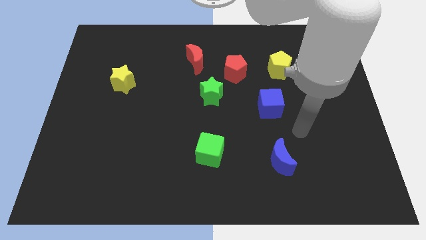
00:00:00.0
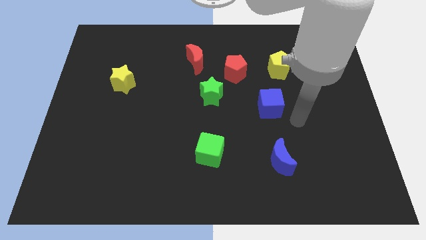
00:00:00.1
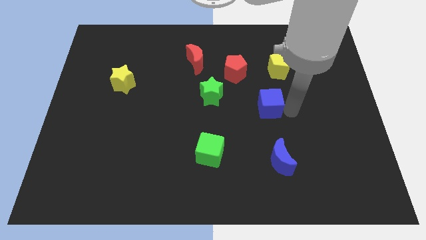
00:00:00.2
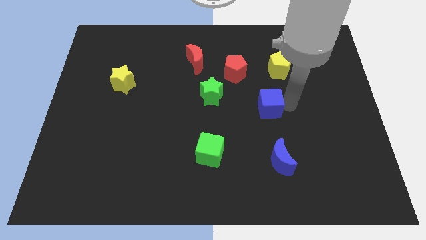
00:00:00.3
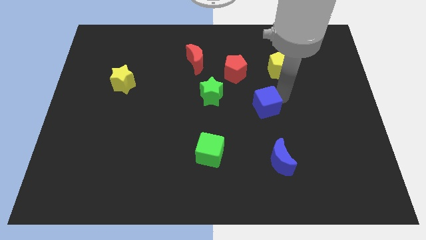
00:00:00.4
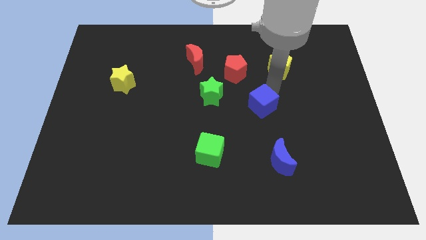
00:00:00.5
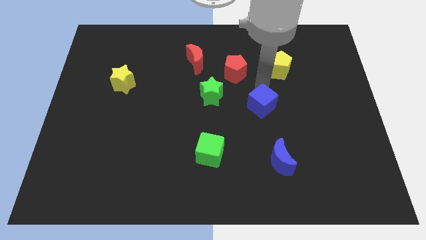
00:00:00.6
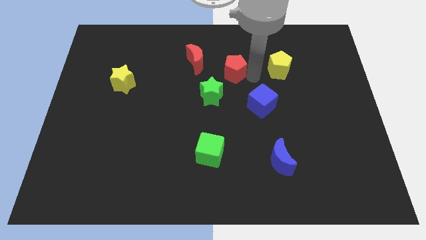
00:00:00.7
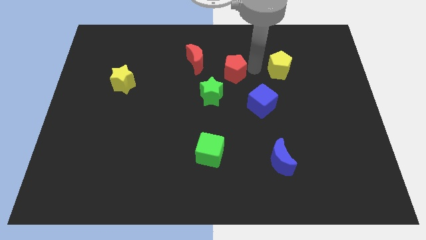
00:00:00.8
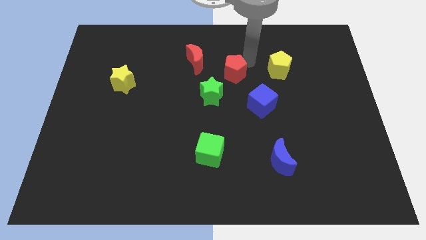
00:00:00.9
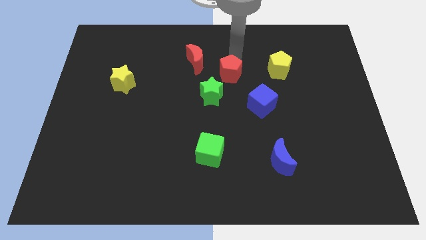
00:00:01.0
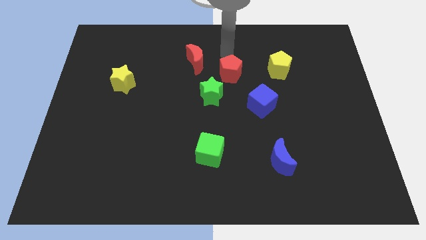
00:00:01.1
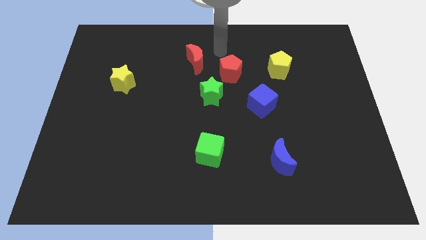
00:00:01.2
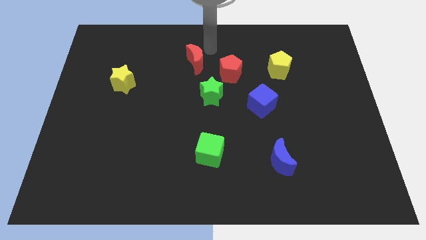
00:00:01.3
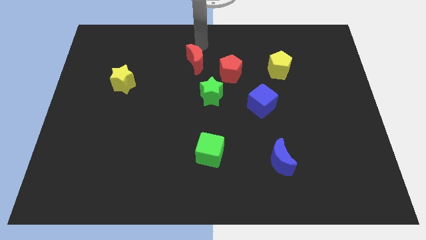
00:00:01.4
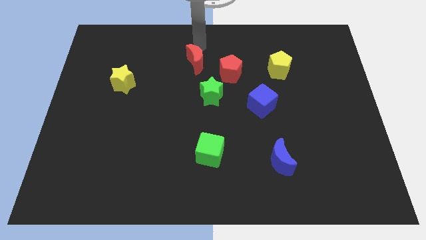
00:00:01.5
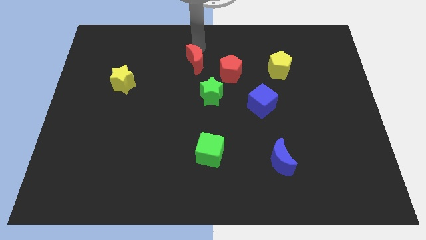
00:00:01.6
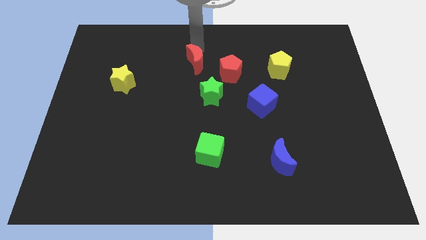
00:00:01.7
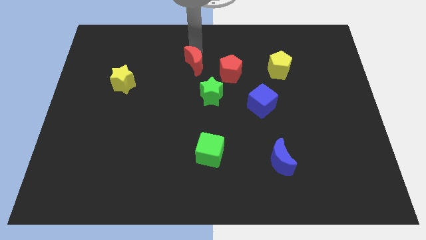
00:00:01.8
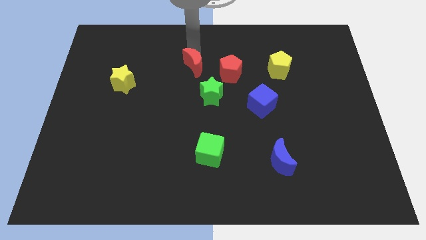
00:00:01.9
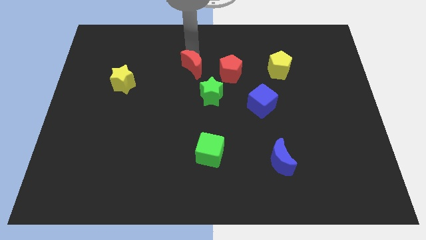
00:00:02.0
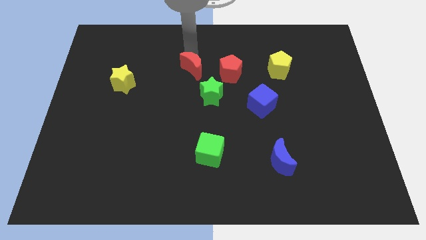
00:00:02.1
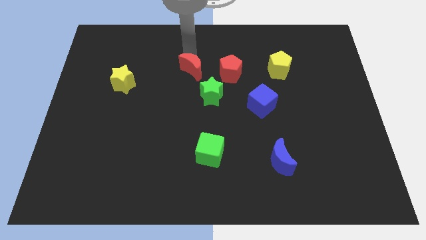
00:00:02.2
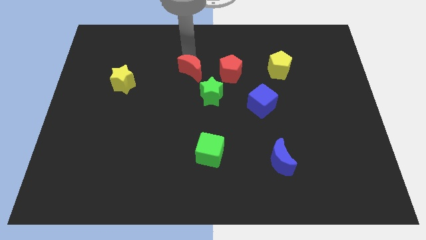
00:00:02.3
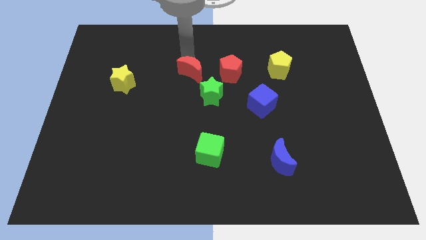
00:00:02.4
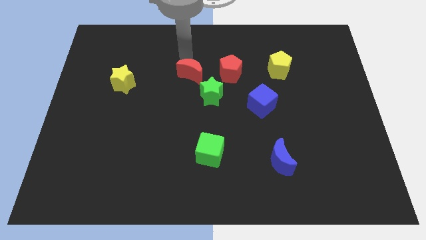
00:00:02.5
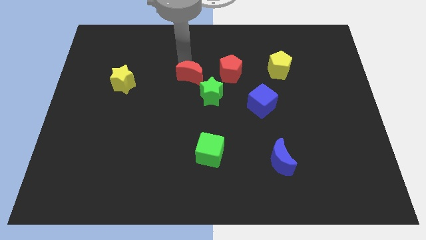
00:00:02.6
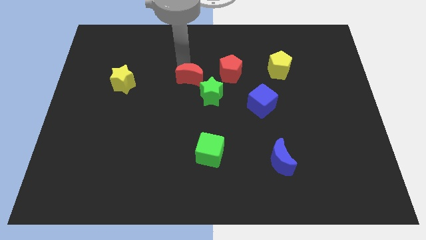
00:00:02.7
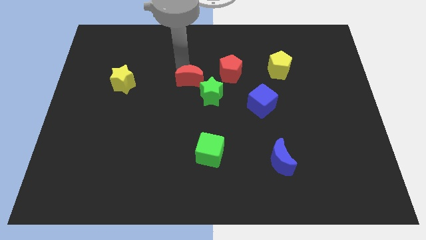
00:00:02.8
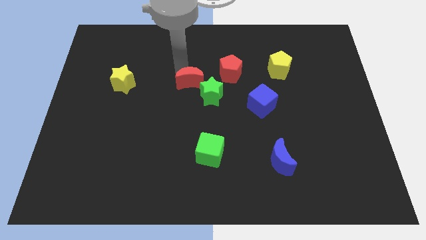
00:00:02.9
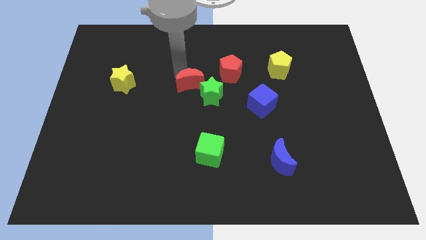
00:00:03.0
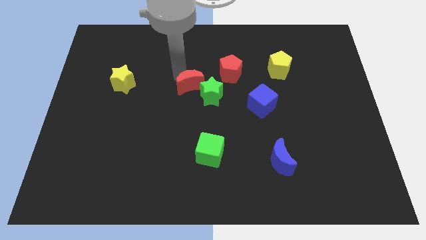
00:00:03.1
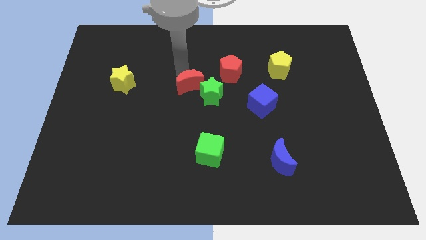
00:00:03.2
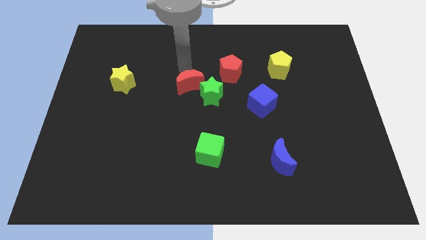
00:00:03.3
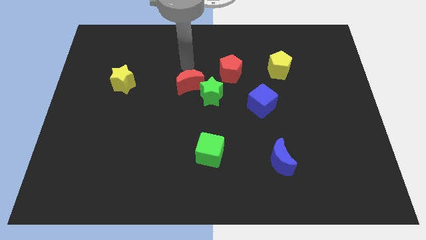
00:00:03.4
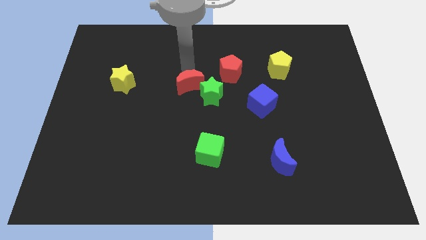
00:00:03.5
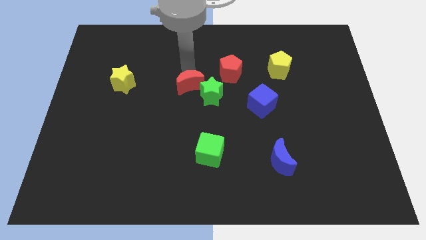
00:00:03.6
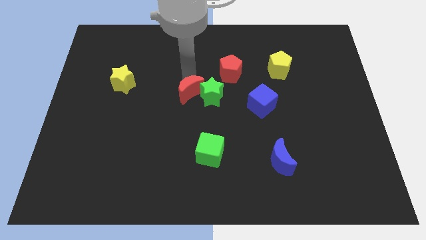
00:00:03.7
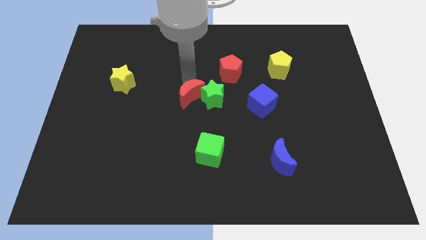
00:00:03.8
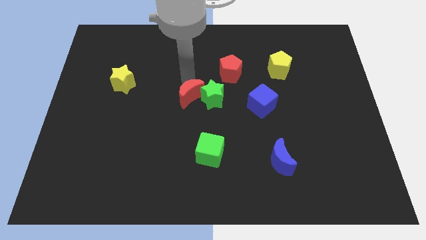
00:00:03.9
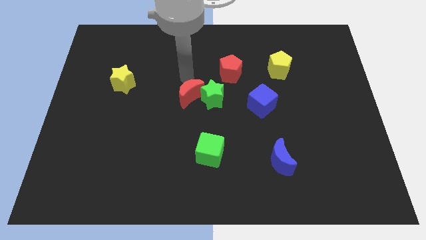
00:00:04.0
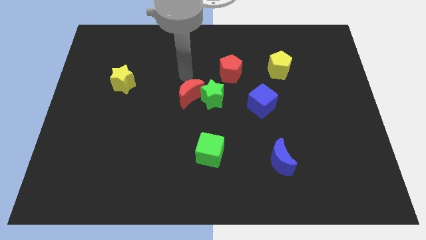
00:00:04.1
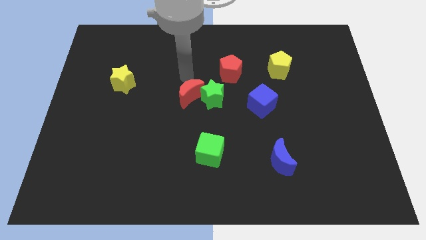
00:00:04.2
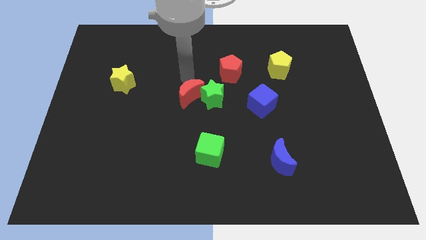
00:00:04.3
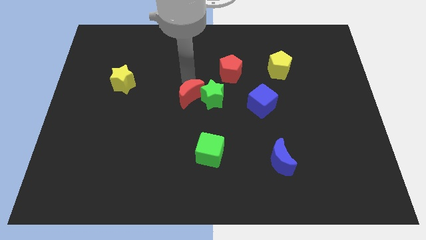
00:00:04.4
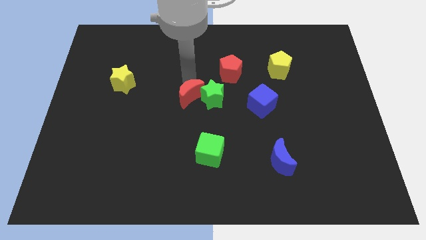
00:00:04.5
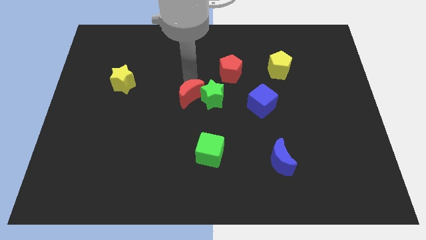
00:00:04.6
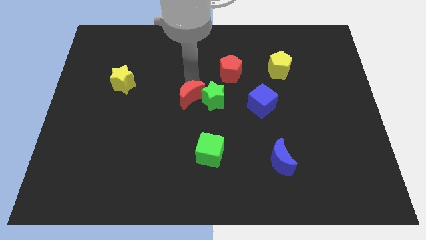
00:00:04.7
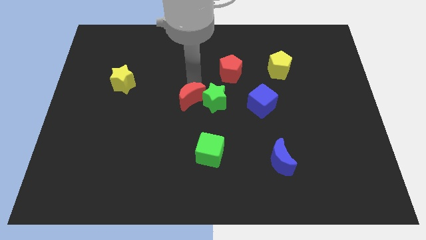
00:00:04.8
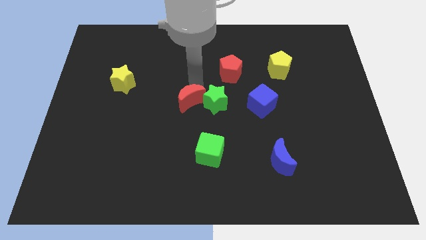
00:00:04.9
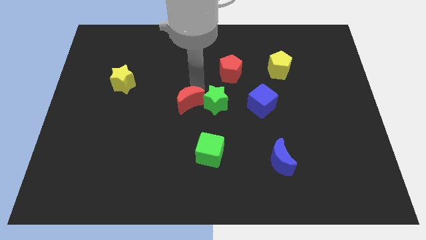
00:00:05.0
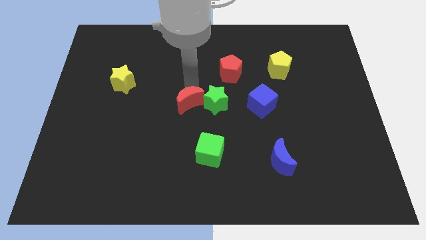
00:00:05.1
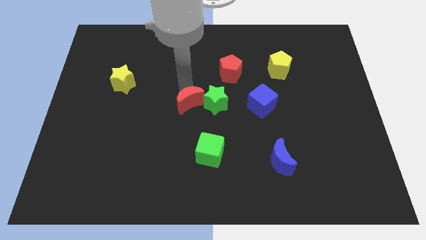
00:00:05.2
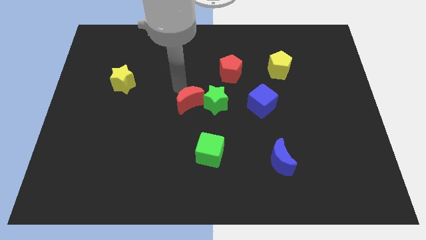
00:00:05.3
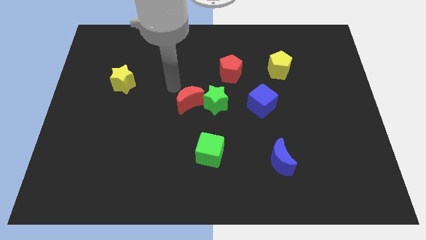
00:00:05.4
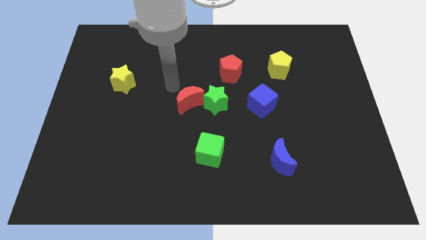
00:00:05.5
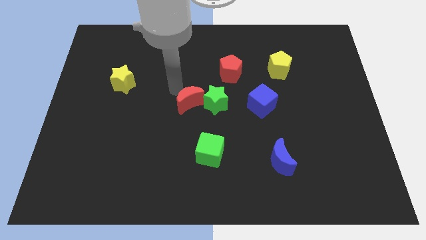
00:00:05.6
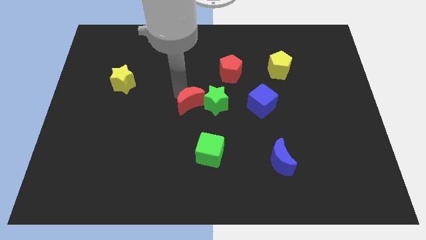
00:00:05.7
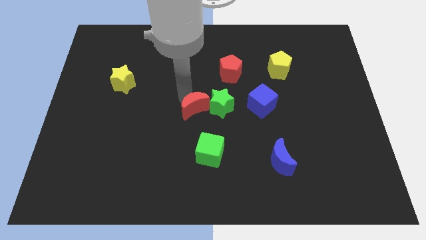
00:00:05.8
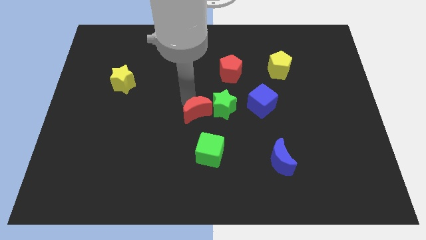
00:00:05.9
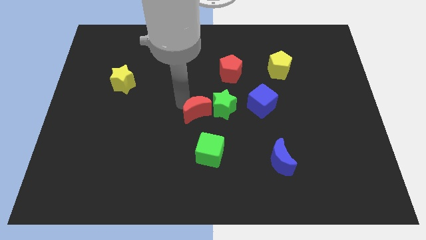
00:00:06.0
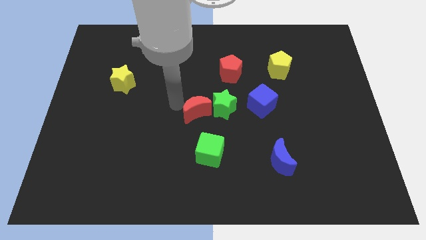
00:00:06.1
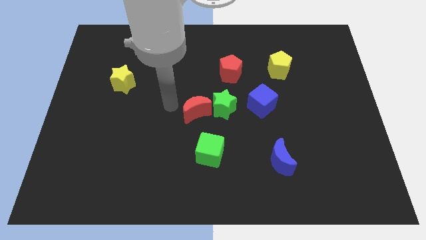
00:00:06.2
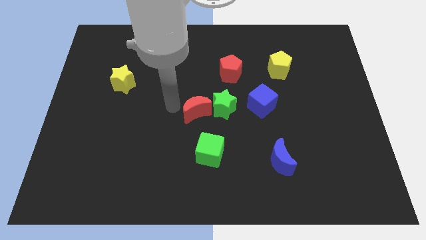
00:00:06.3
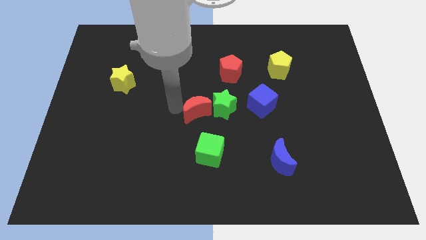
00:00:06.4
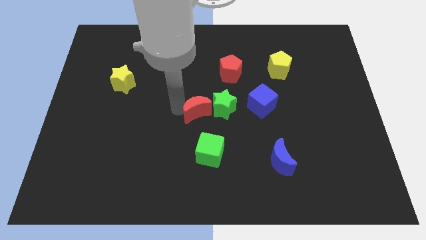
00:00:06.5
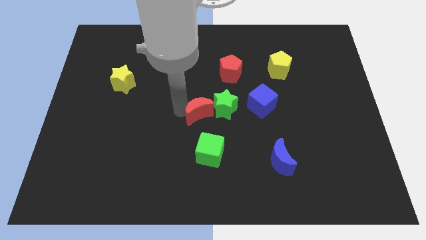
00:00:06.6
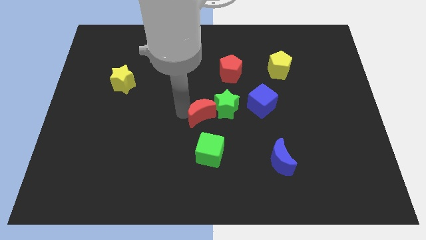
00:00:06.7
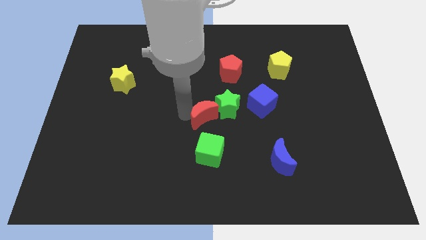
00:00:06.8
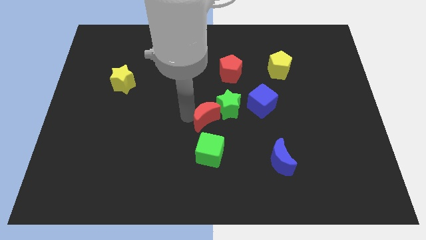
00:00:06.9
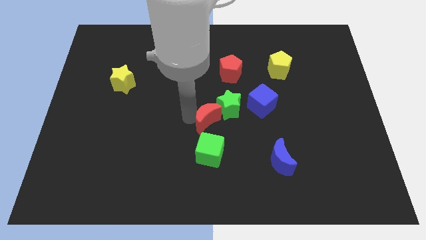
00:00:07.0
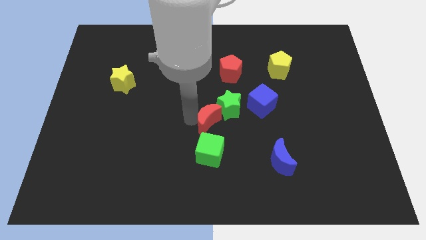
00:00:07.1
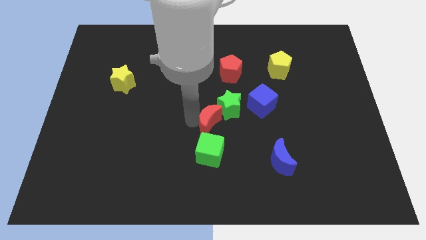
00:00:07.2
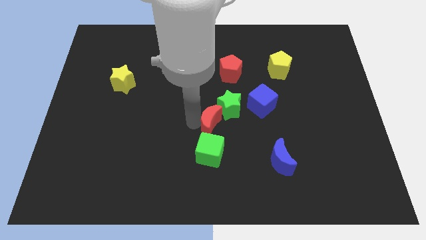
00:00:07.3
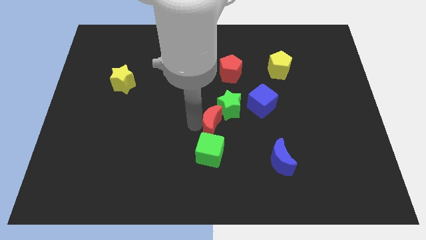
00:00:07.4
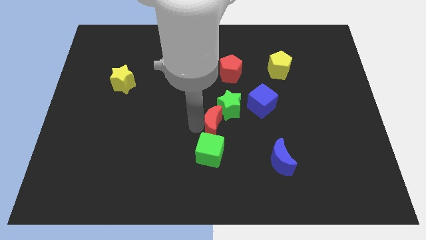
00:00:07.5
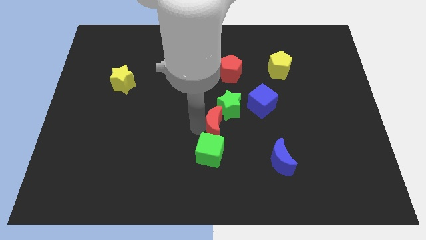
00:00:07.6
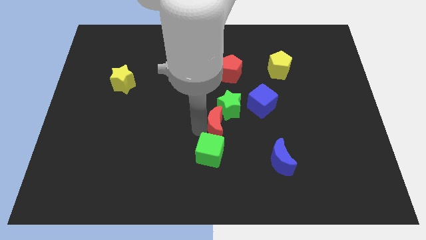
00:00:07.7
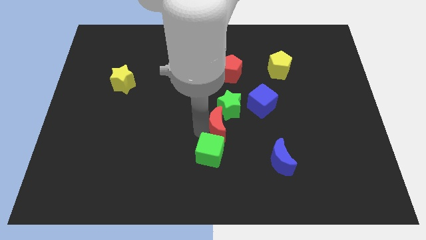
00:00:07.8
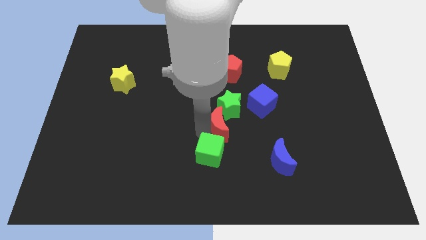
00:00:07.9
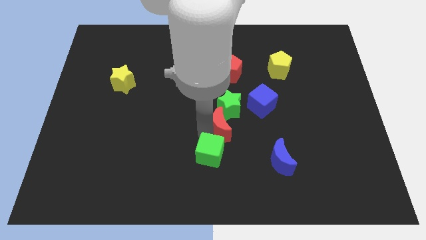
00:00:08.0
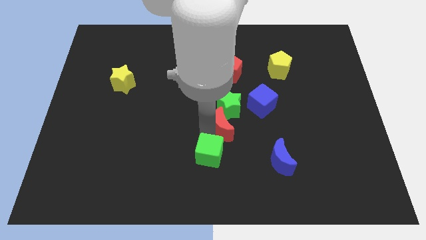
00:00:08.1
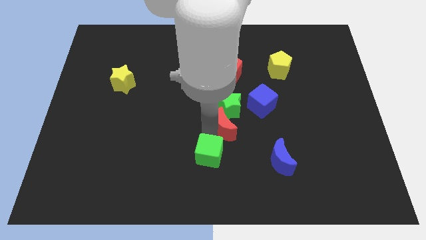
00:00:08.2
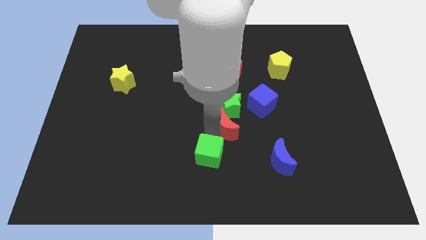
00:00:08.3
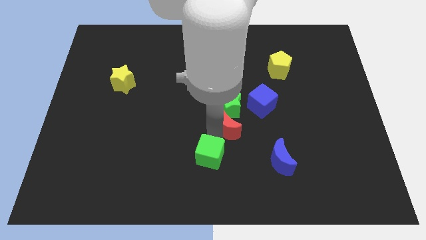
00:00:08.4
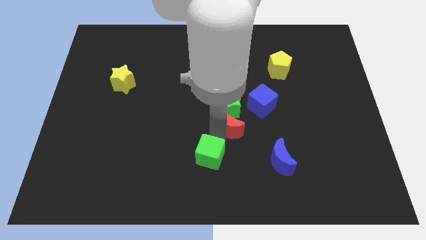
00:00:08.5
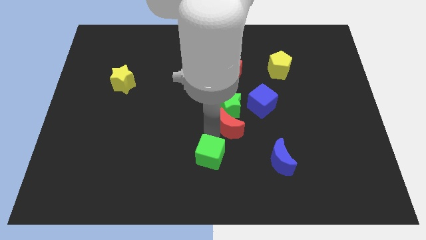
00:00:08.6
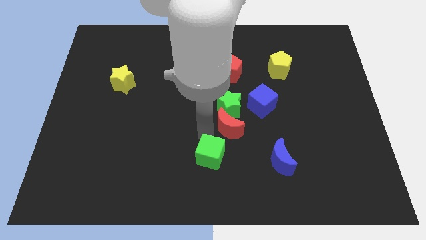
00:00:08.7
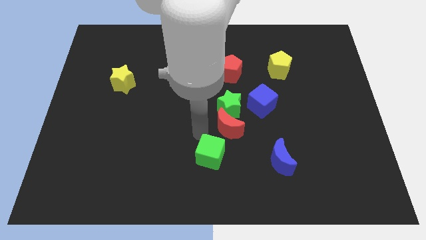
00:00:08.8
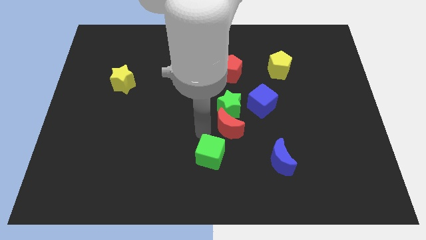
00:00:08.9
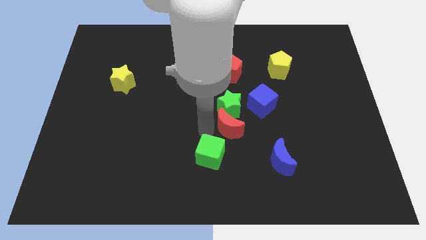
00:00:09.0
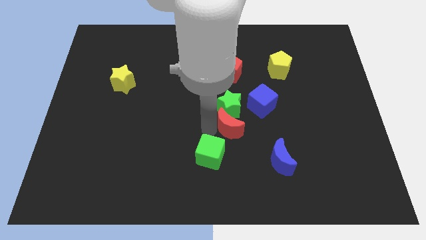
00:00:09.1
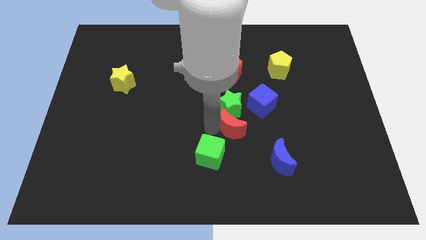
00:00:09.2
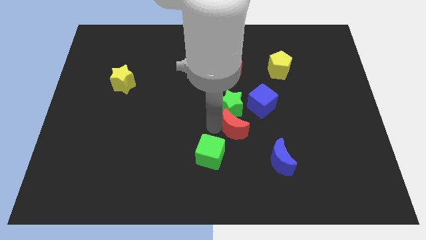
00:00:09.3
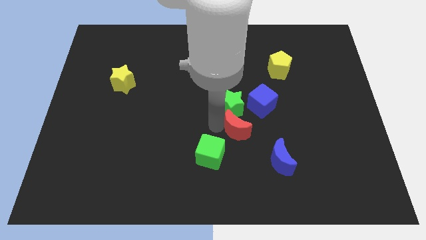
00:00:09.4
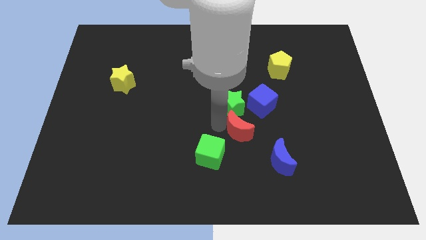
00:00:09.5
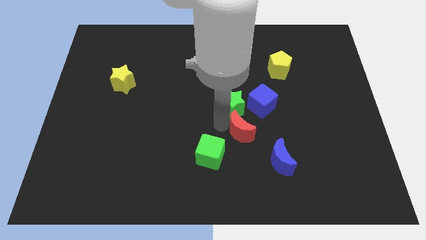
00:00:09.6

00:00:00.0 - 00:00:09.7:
push the red moon down and then to the right
